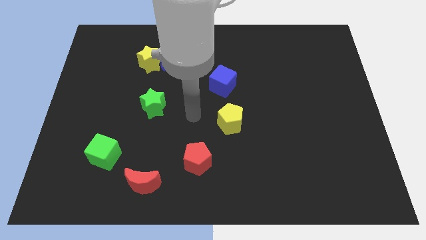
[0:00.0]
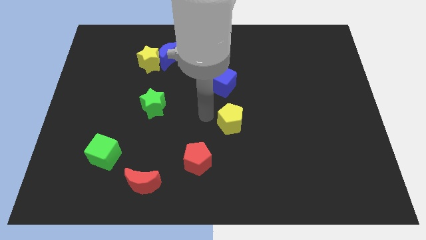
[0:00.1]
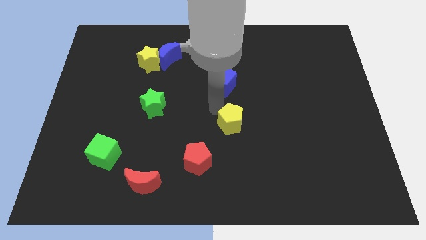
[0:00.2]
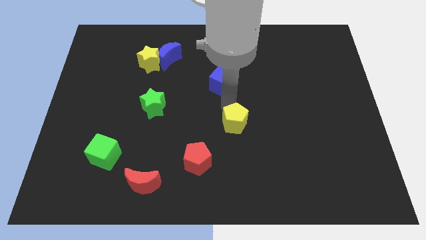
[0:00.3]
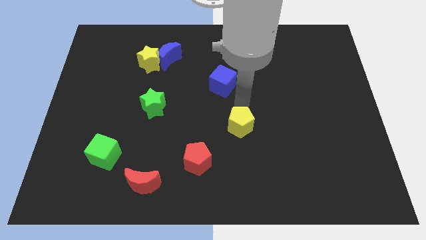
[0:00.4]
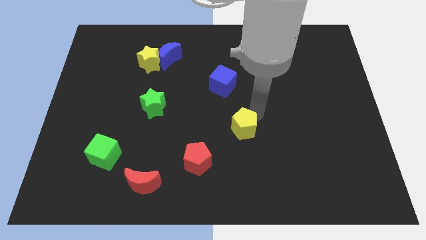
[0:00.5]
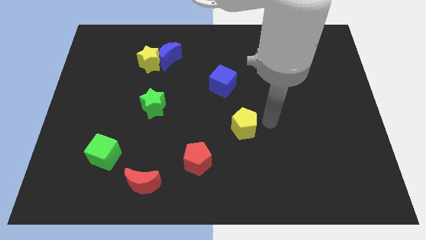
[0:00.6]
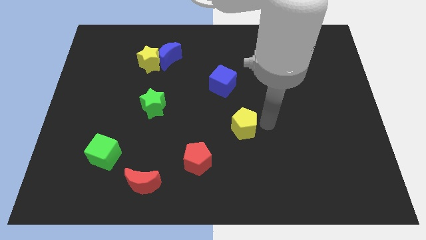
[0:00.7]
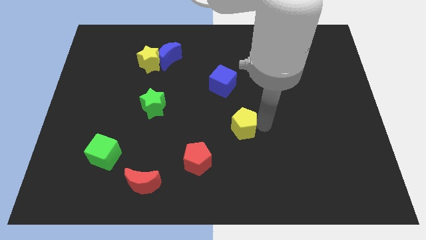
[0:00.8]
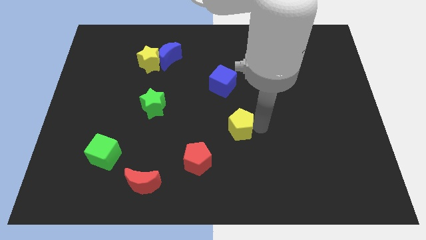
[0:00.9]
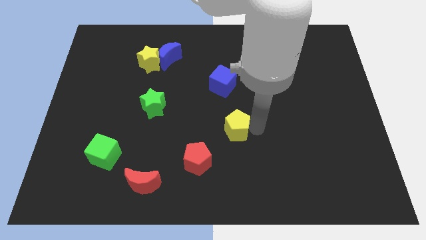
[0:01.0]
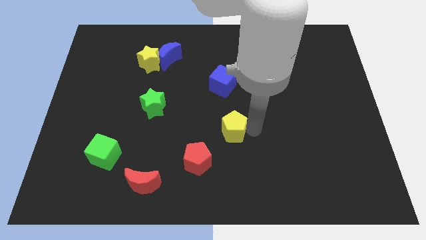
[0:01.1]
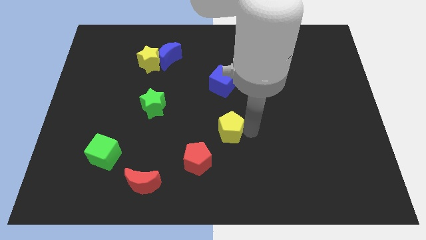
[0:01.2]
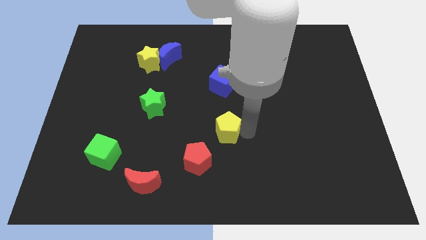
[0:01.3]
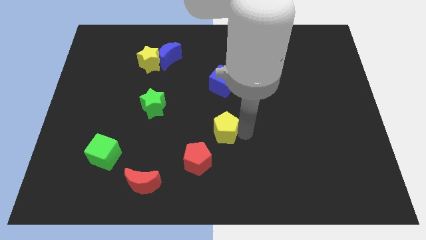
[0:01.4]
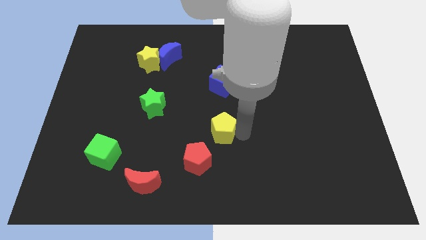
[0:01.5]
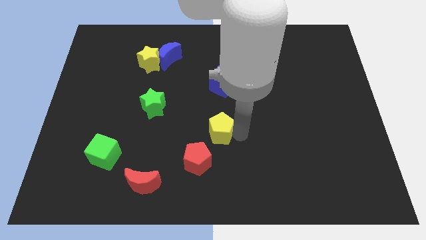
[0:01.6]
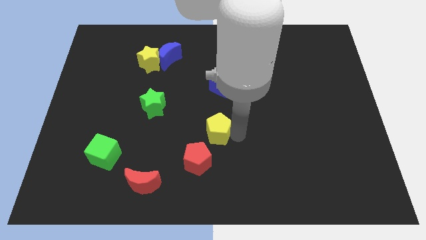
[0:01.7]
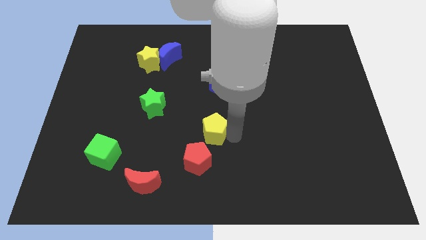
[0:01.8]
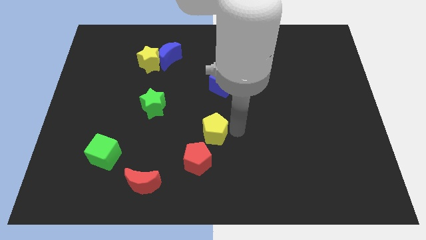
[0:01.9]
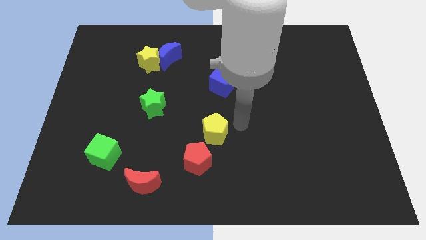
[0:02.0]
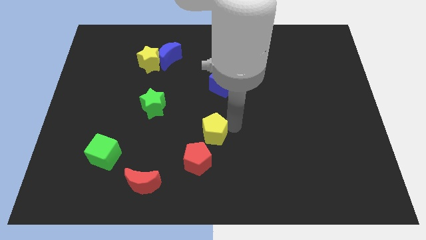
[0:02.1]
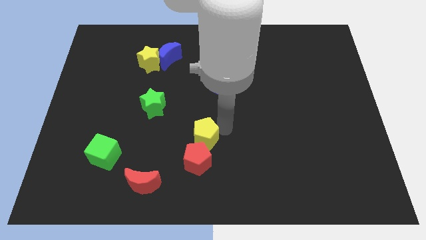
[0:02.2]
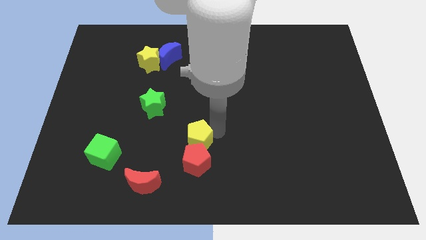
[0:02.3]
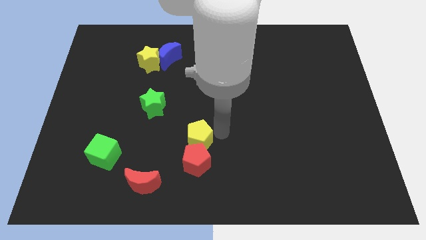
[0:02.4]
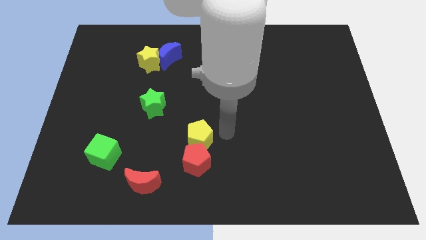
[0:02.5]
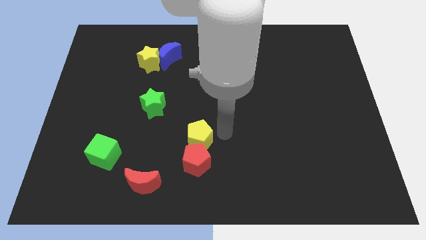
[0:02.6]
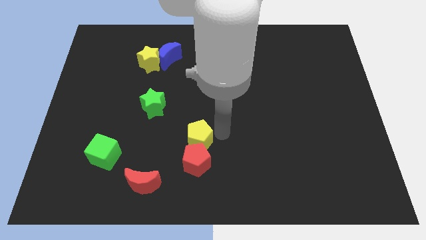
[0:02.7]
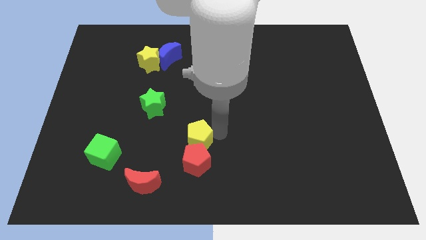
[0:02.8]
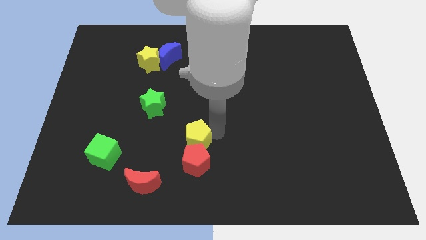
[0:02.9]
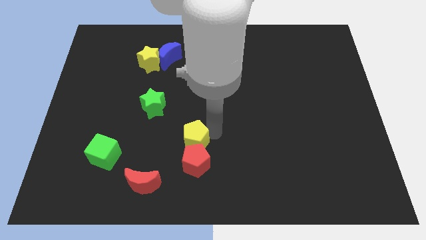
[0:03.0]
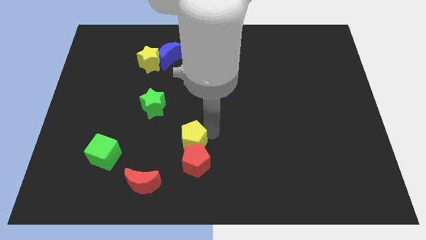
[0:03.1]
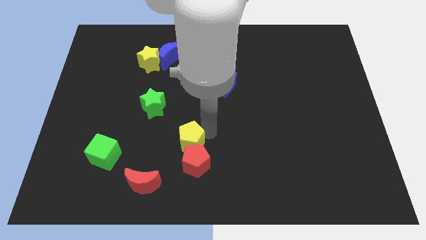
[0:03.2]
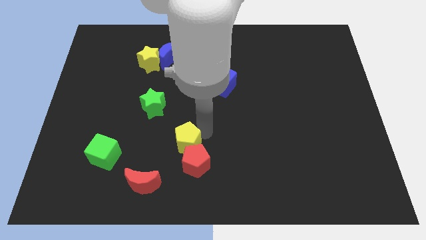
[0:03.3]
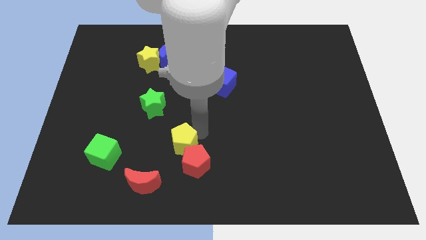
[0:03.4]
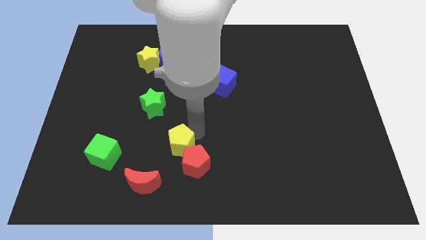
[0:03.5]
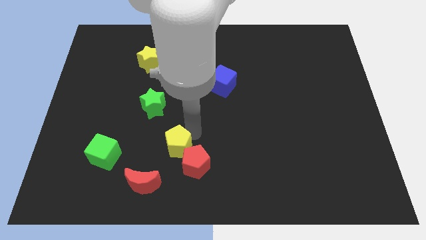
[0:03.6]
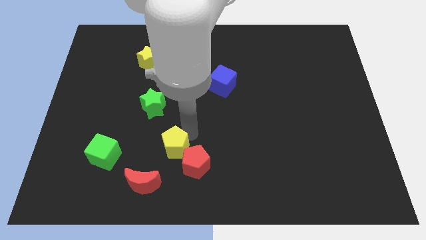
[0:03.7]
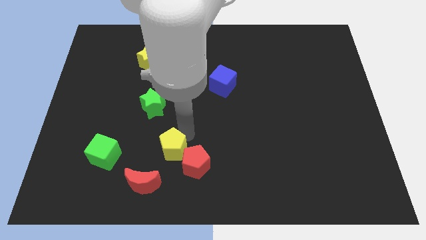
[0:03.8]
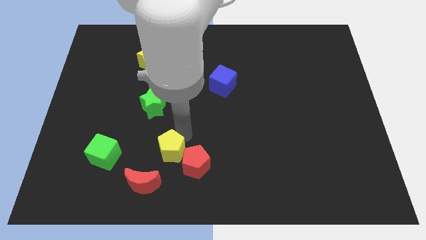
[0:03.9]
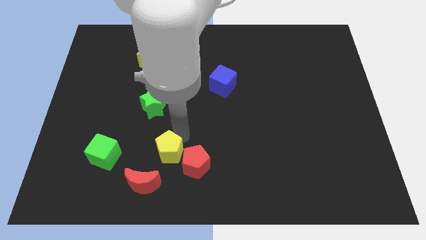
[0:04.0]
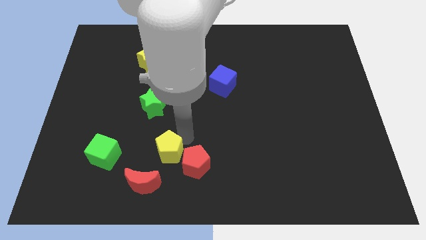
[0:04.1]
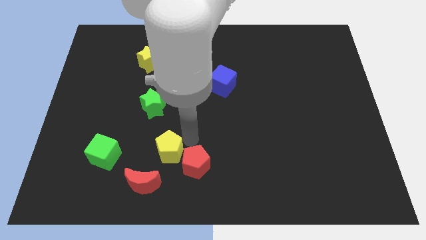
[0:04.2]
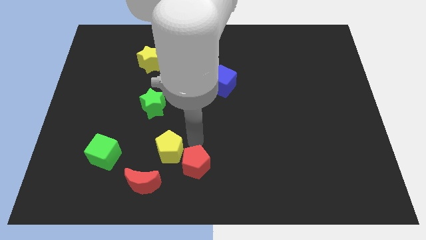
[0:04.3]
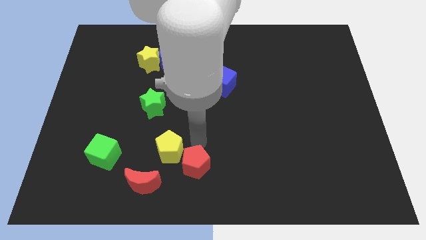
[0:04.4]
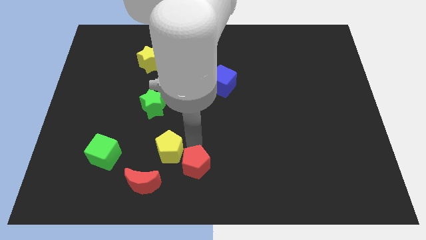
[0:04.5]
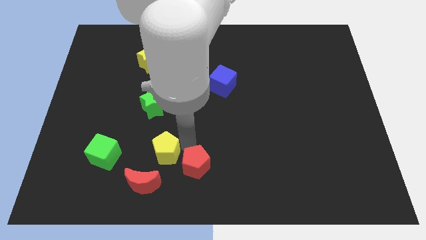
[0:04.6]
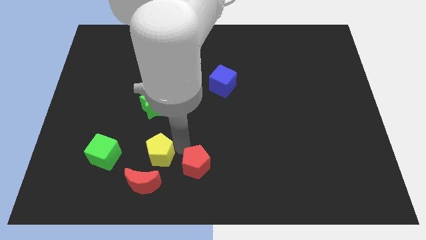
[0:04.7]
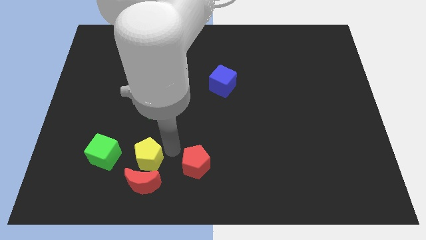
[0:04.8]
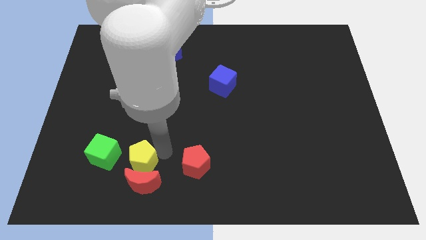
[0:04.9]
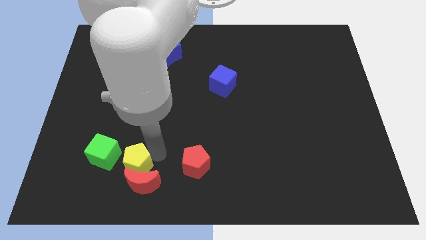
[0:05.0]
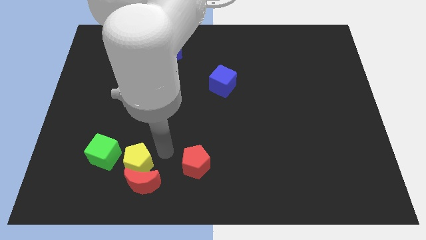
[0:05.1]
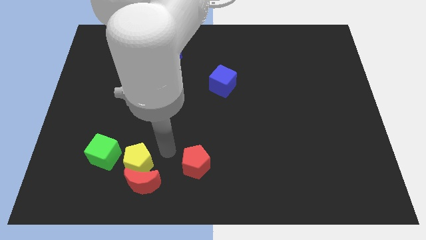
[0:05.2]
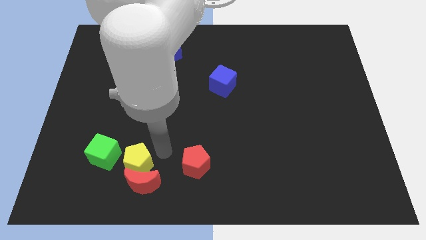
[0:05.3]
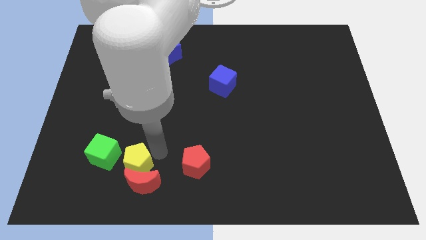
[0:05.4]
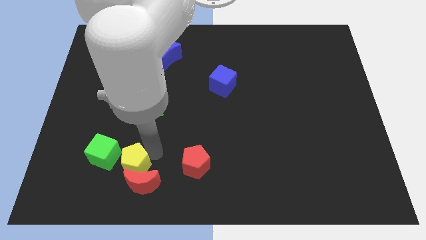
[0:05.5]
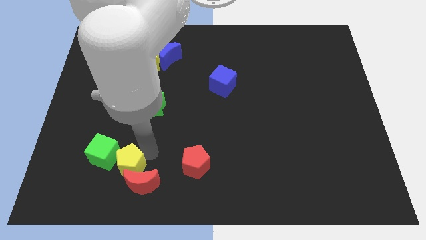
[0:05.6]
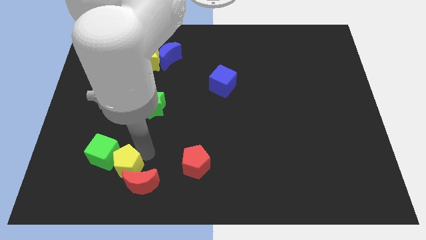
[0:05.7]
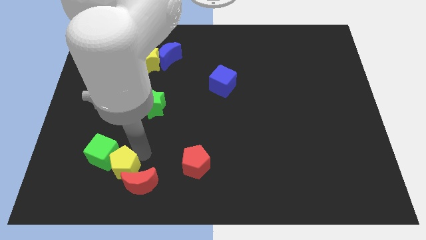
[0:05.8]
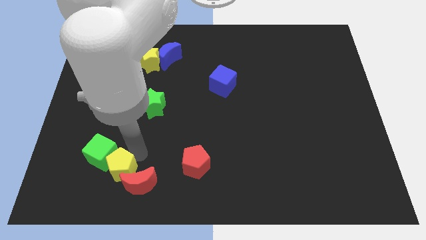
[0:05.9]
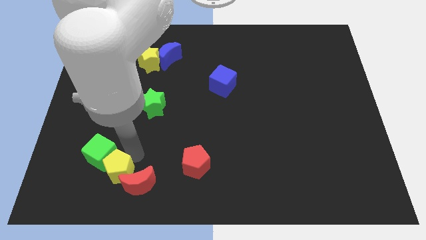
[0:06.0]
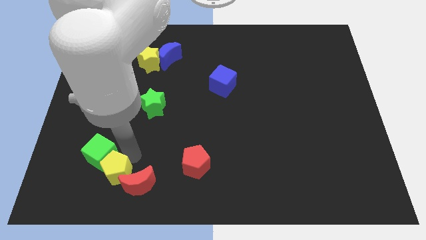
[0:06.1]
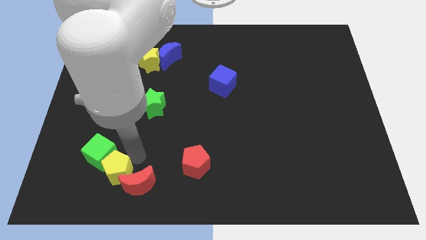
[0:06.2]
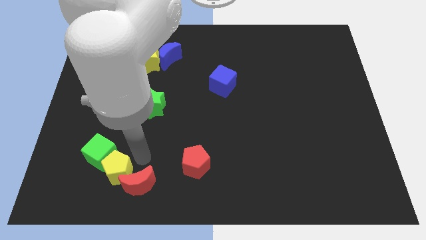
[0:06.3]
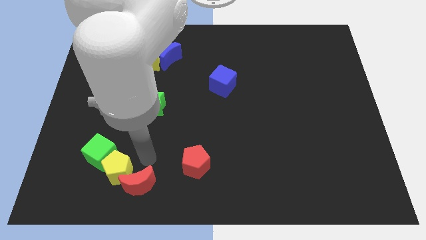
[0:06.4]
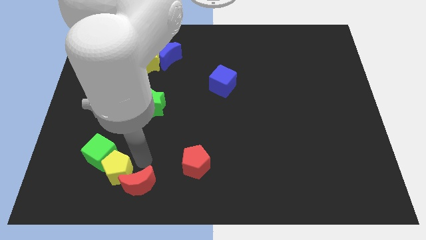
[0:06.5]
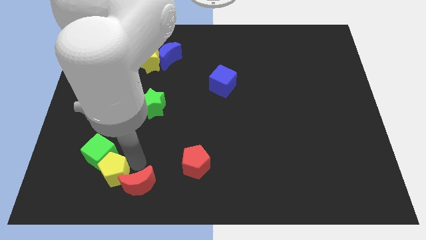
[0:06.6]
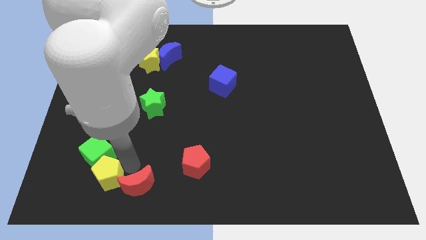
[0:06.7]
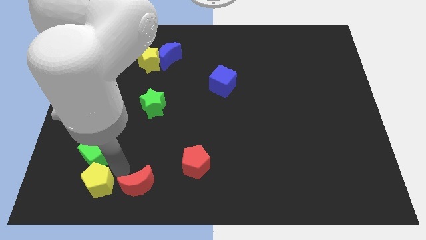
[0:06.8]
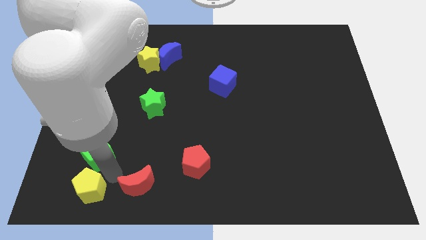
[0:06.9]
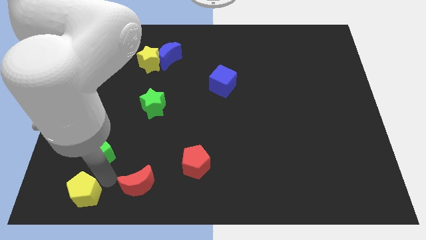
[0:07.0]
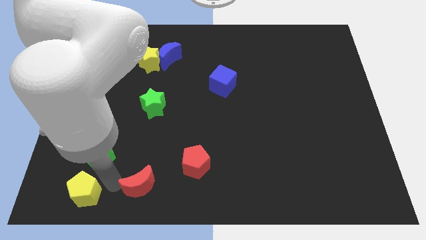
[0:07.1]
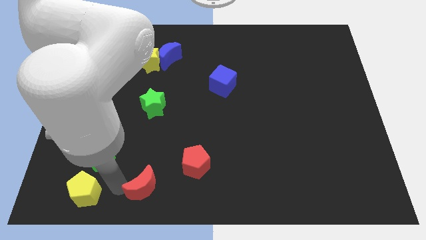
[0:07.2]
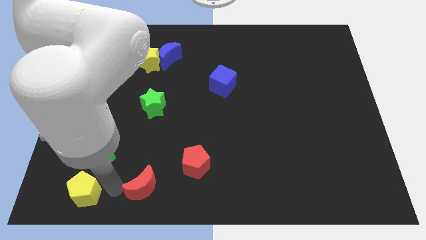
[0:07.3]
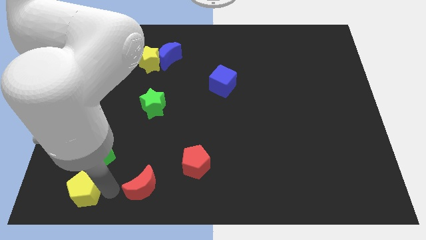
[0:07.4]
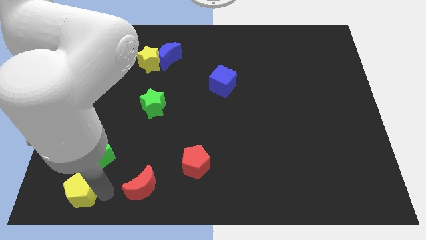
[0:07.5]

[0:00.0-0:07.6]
push the yellow pentagon to the bottom left of the board
